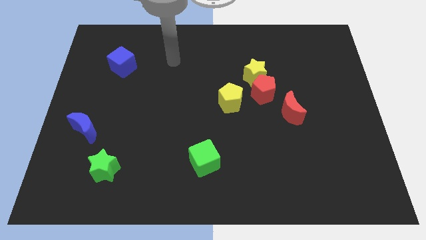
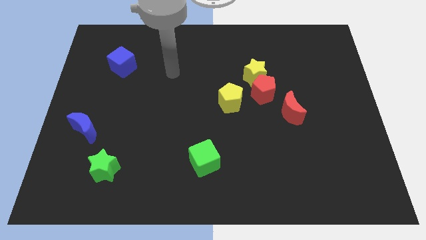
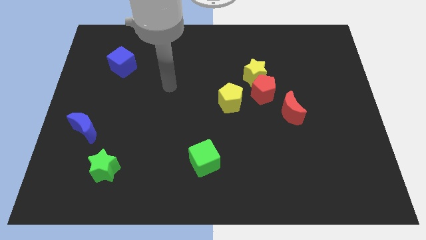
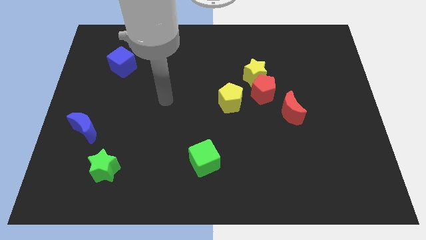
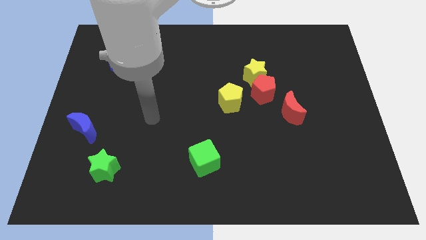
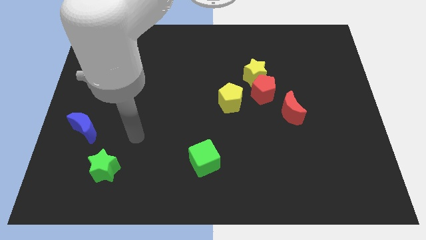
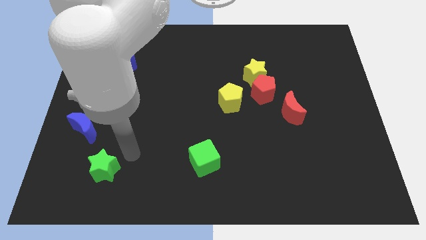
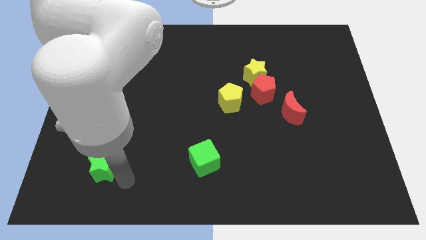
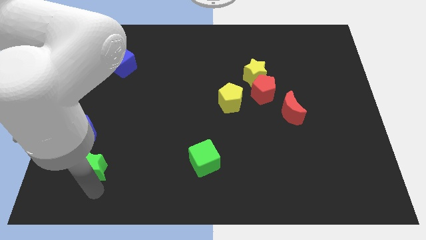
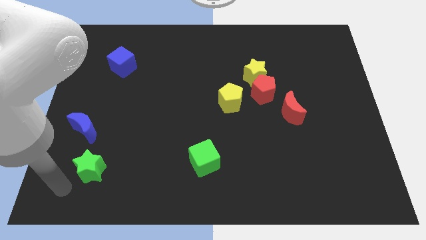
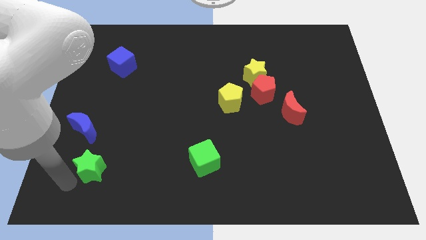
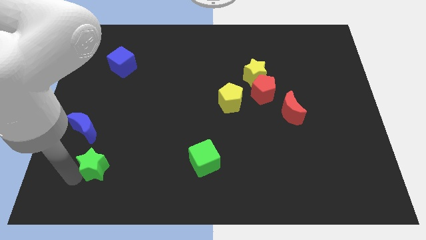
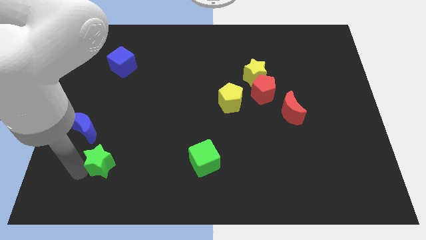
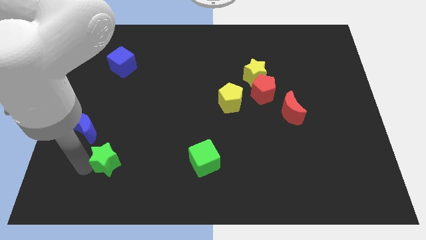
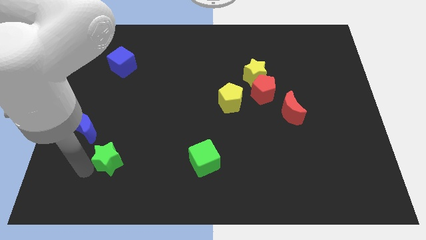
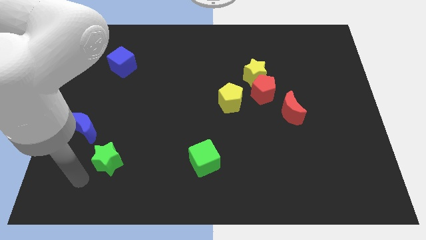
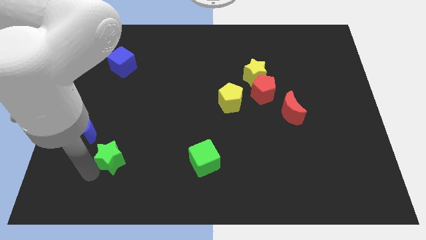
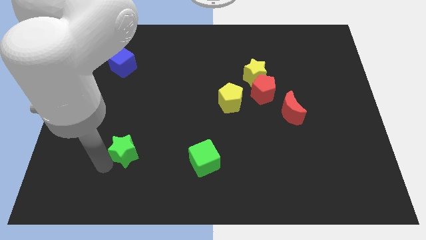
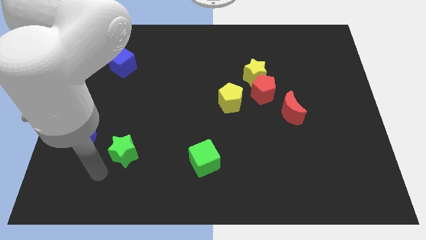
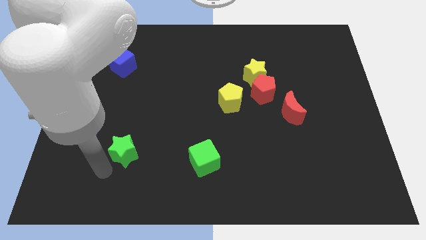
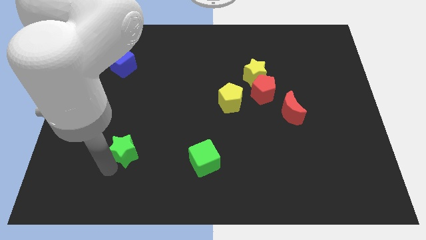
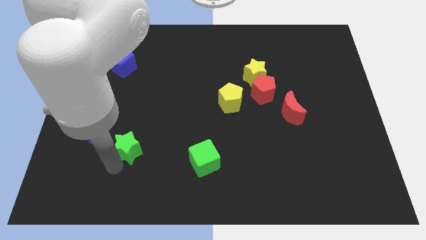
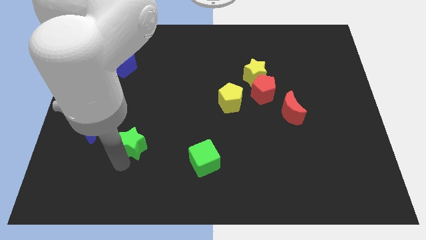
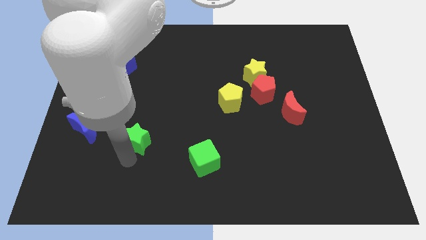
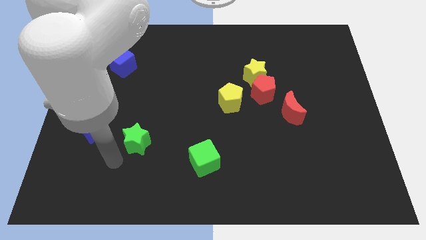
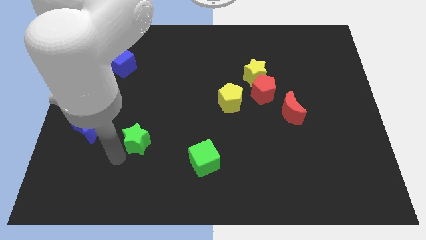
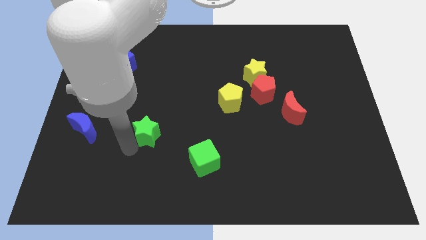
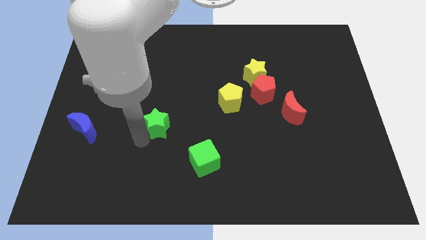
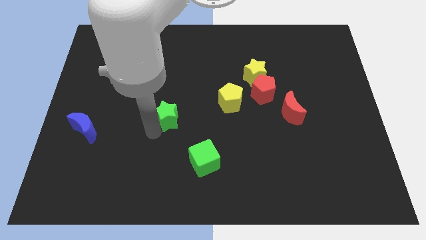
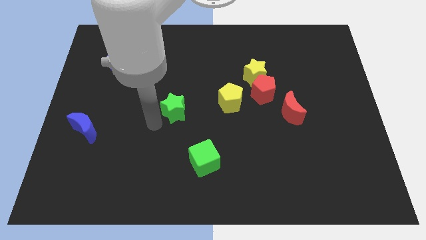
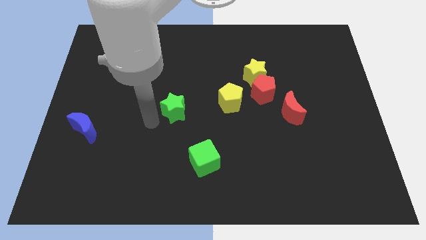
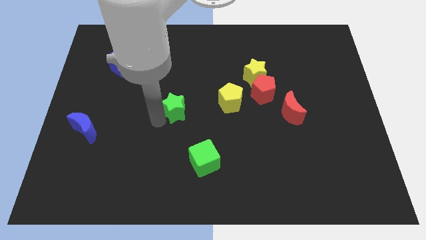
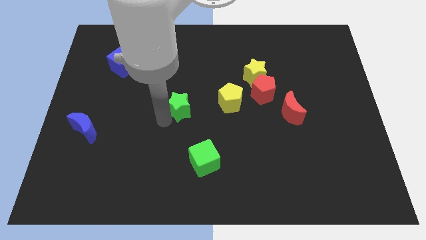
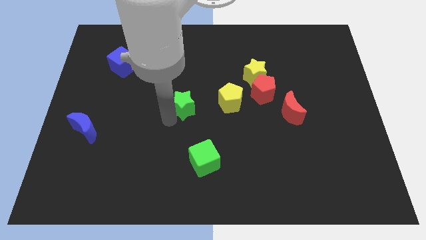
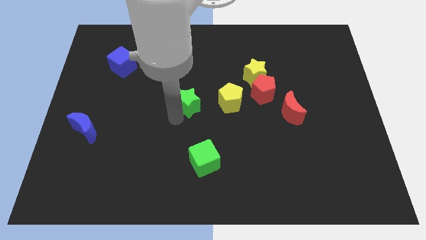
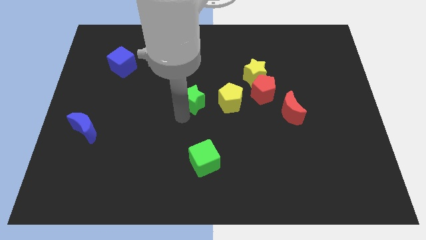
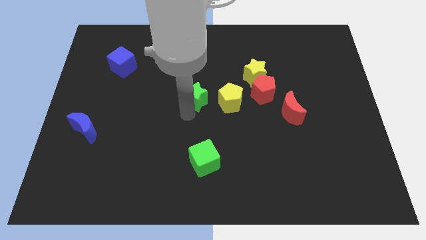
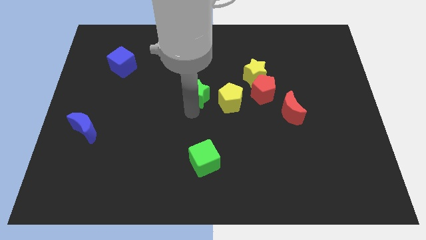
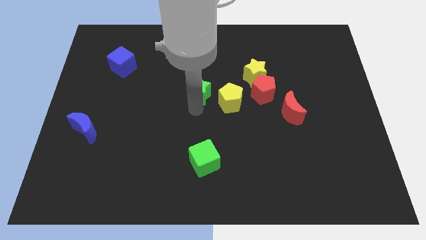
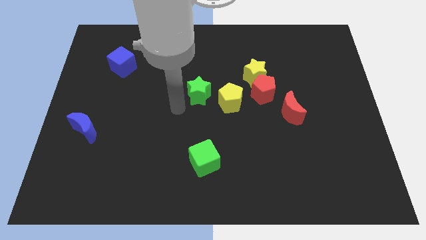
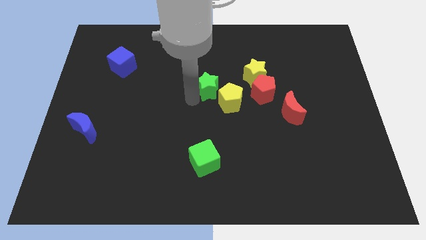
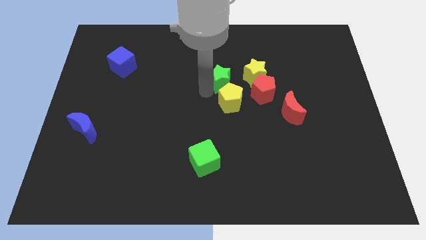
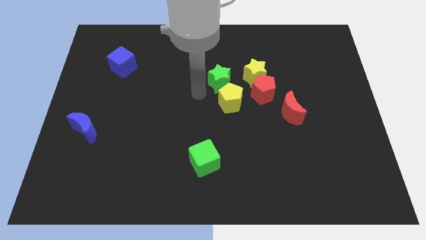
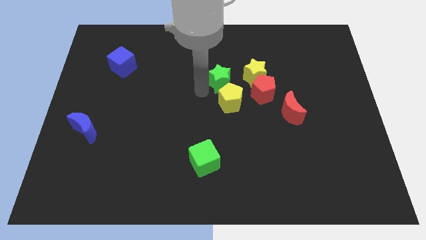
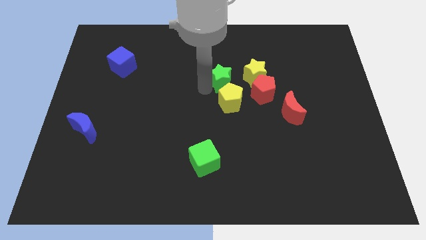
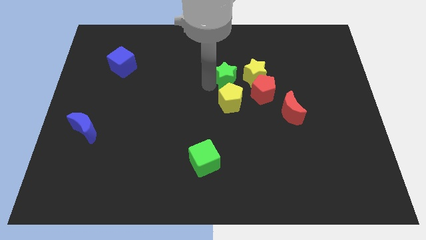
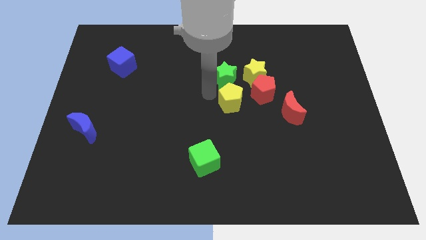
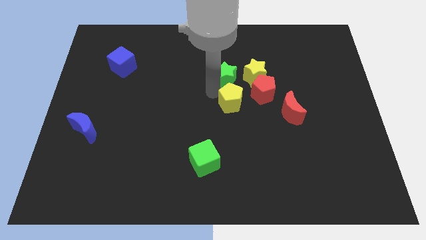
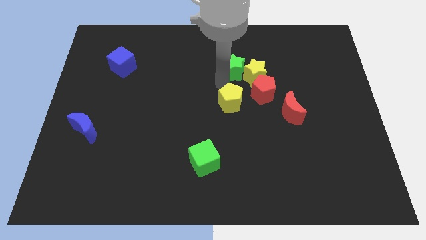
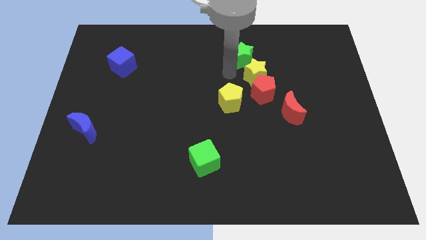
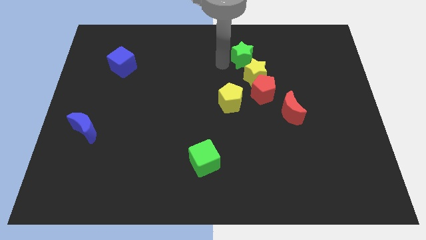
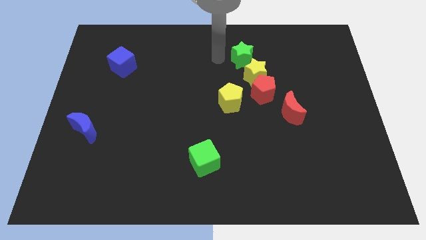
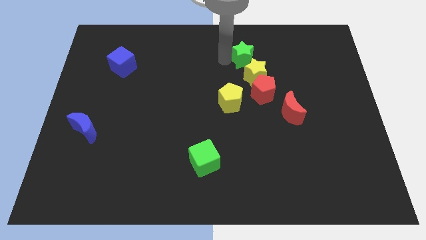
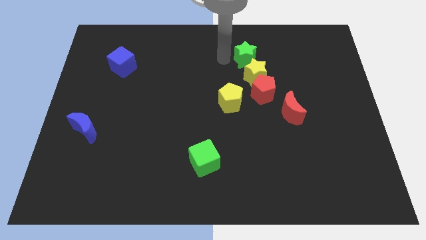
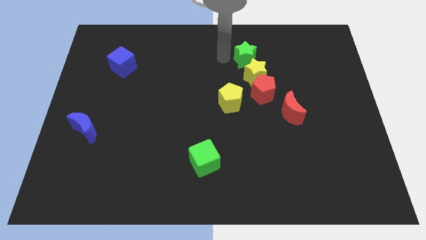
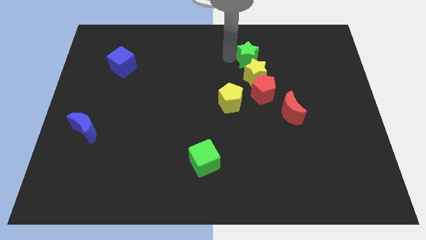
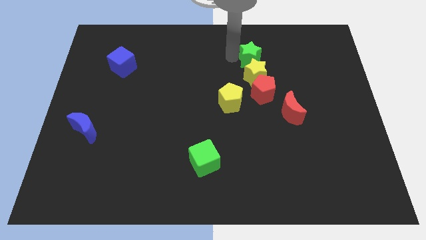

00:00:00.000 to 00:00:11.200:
slide the green star diagonally up and to the right of the yellow star

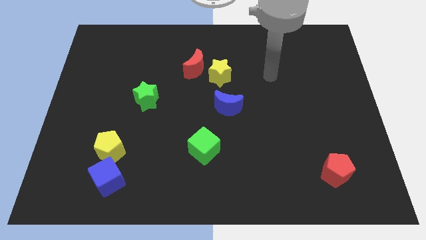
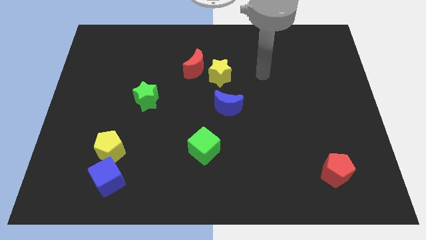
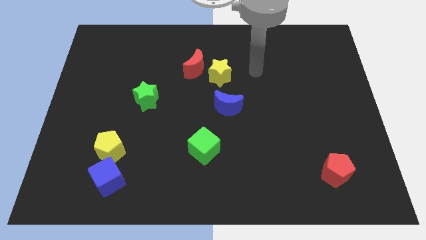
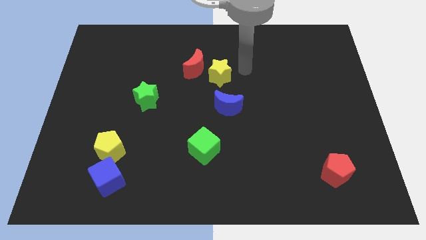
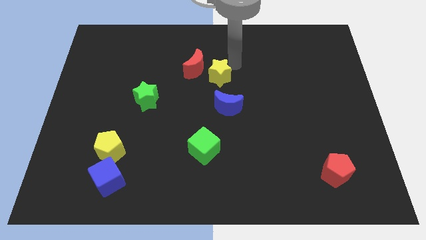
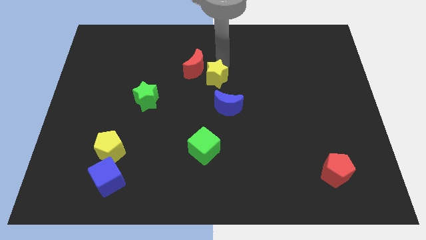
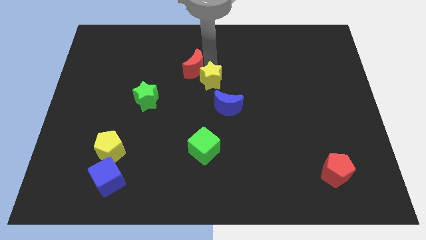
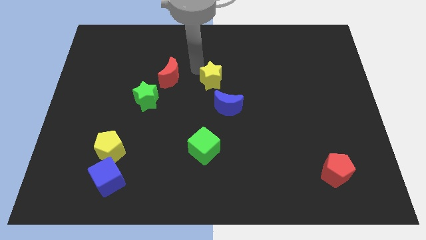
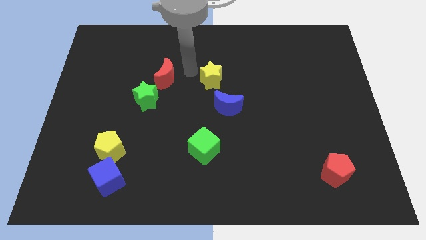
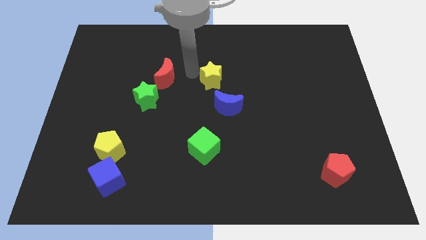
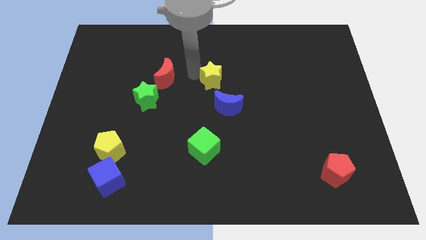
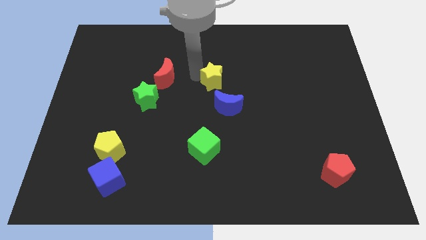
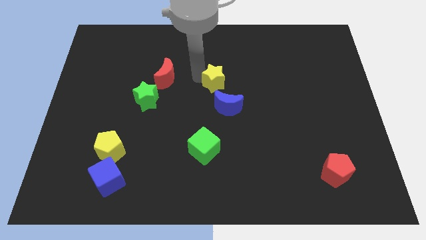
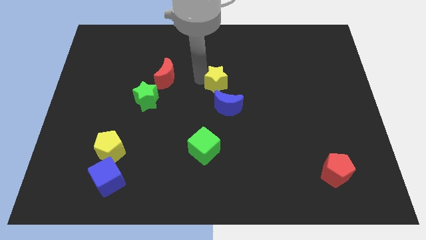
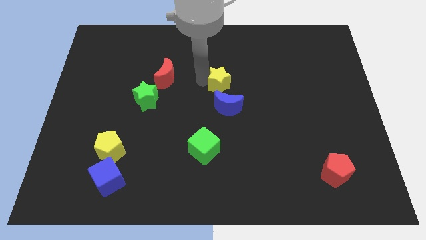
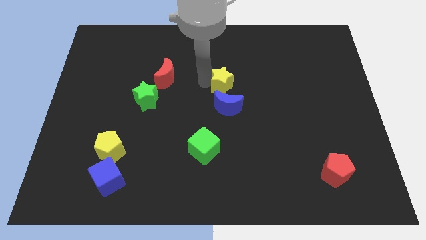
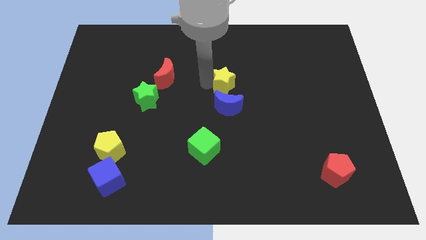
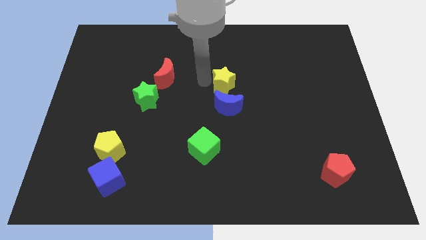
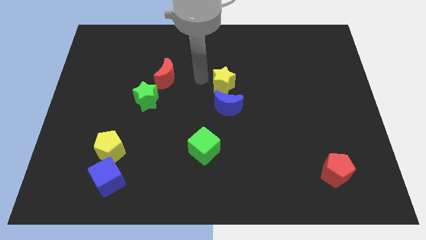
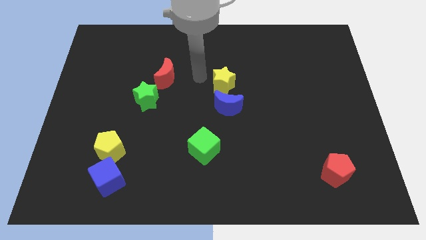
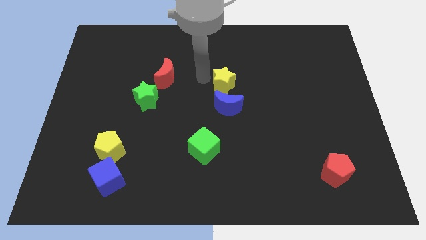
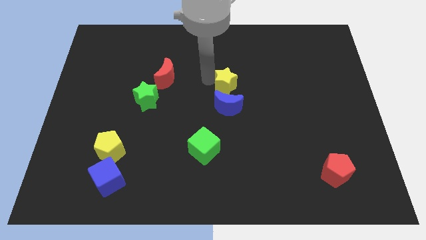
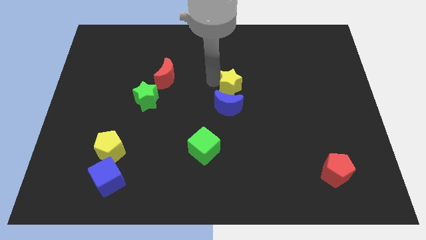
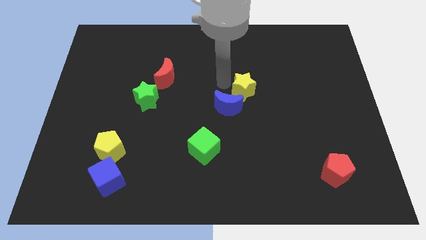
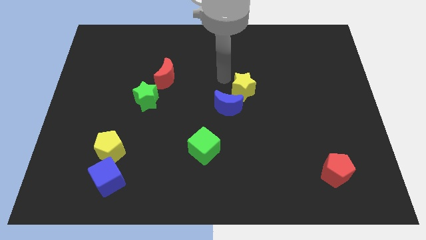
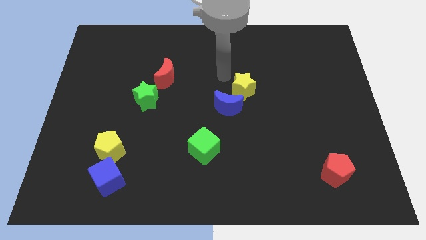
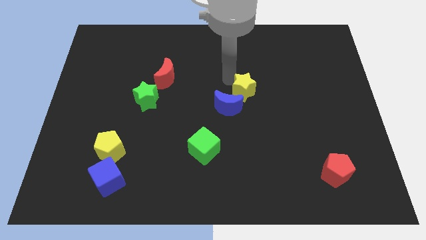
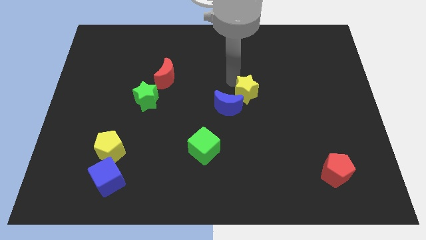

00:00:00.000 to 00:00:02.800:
slide the yellow star right of the blue moon
